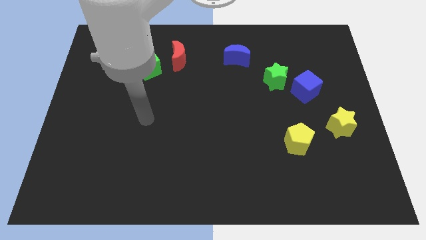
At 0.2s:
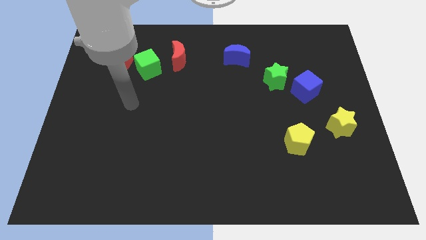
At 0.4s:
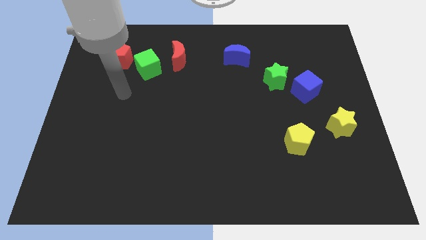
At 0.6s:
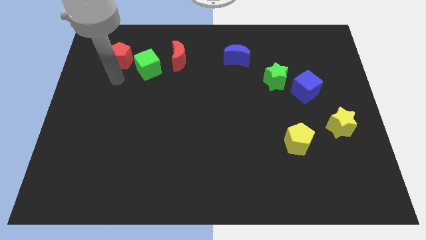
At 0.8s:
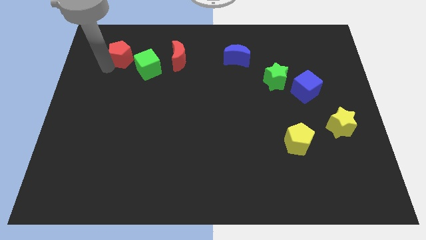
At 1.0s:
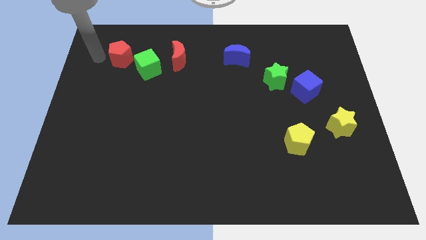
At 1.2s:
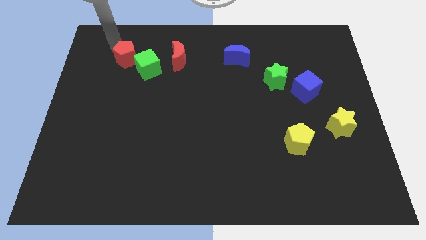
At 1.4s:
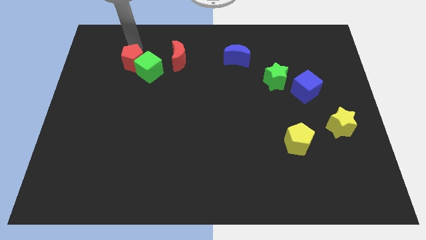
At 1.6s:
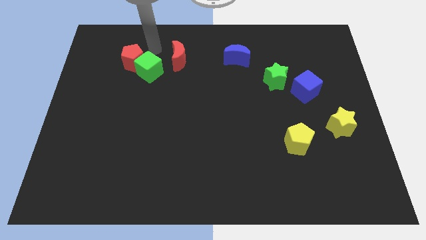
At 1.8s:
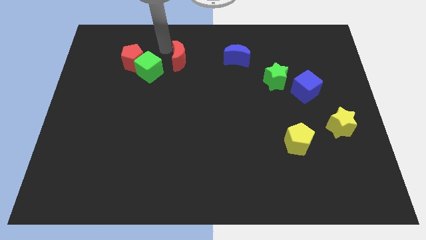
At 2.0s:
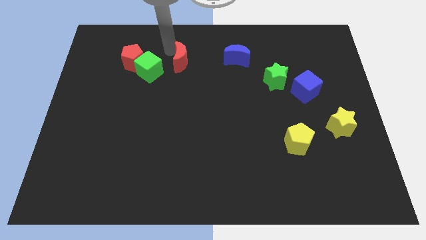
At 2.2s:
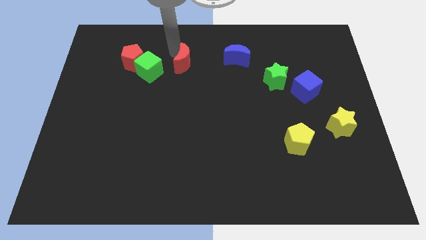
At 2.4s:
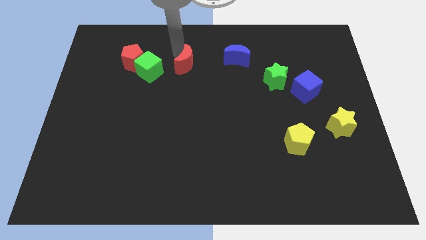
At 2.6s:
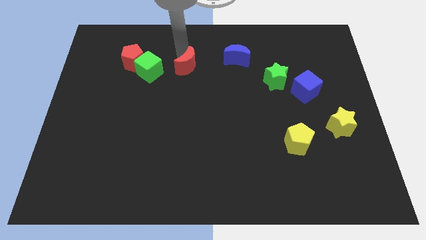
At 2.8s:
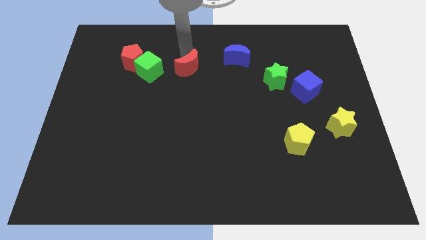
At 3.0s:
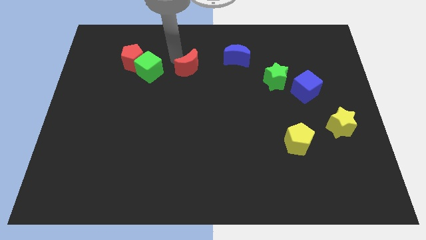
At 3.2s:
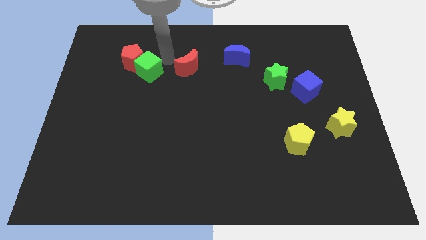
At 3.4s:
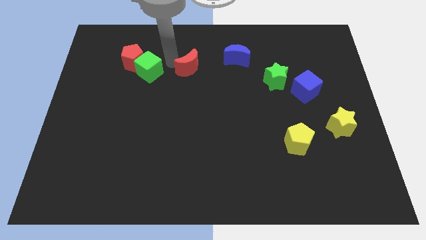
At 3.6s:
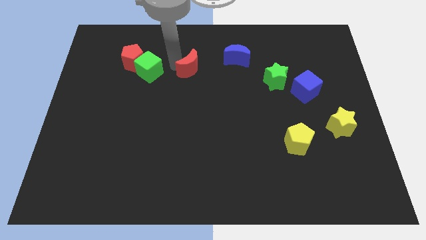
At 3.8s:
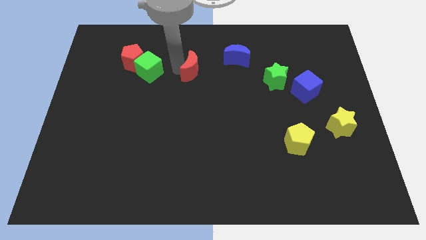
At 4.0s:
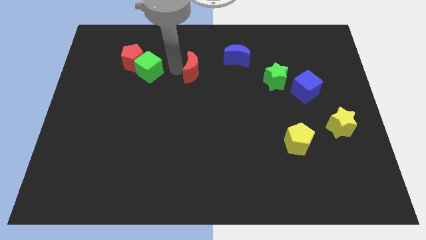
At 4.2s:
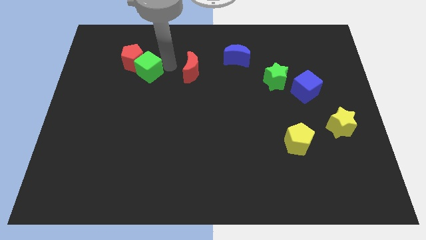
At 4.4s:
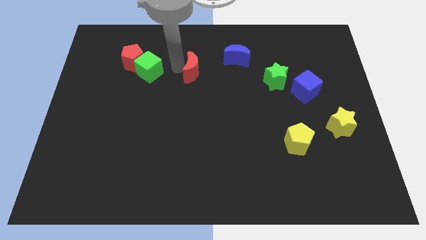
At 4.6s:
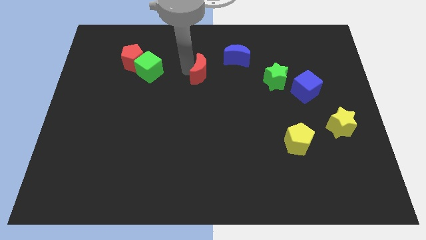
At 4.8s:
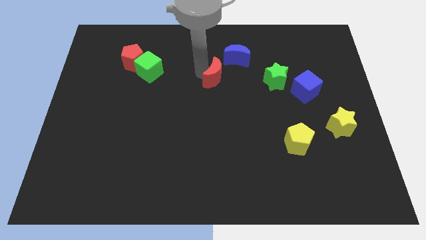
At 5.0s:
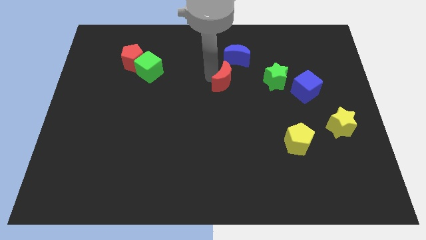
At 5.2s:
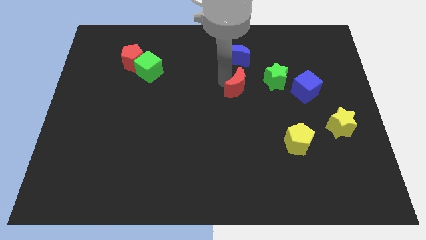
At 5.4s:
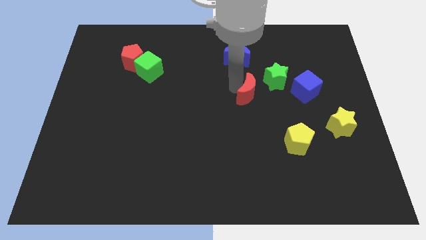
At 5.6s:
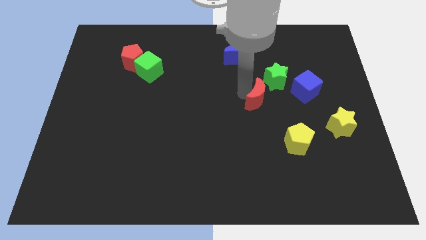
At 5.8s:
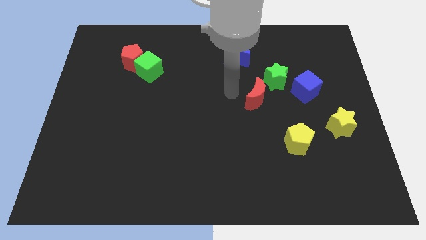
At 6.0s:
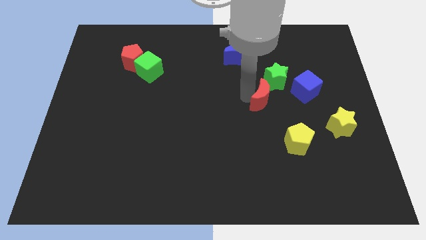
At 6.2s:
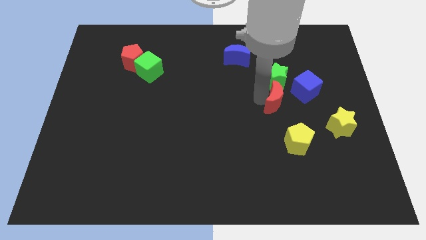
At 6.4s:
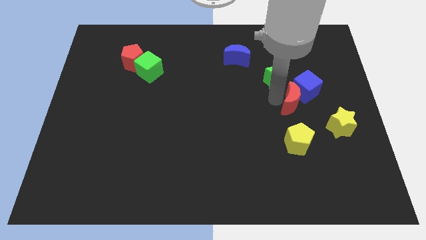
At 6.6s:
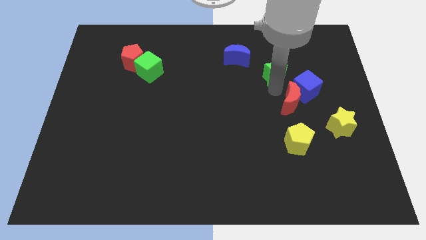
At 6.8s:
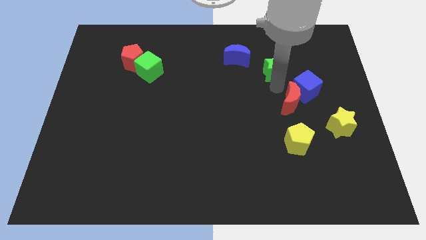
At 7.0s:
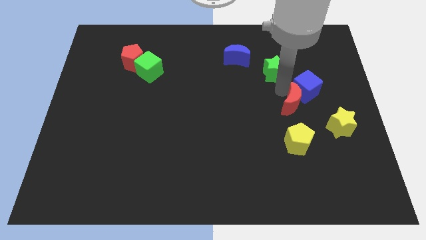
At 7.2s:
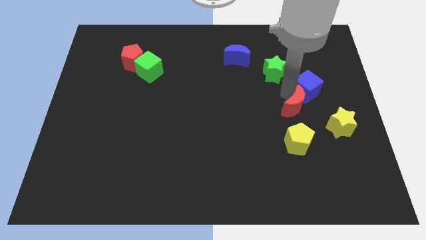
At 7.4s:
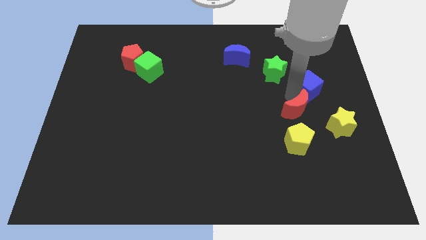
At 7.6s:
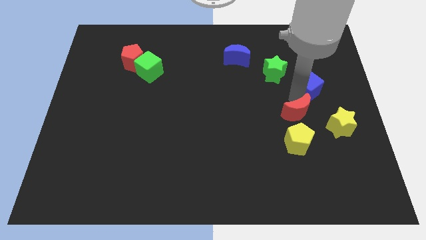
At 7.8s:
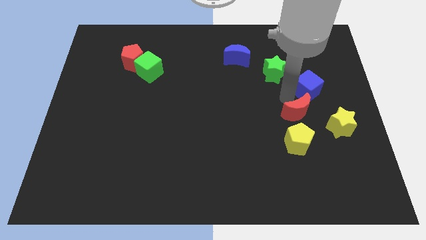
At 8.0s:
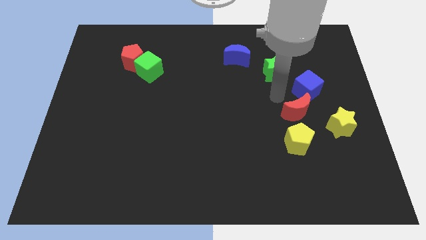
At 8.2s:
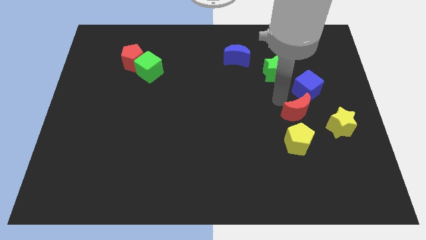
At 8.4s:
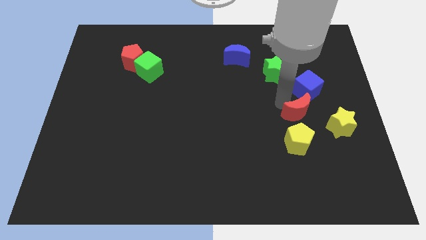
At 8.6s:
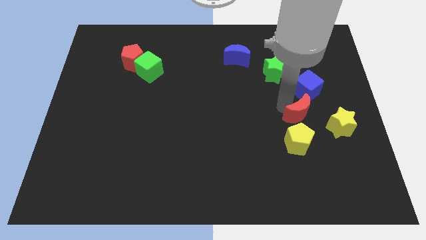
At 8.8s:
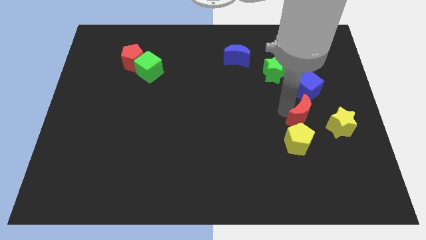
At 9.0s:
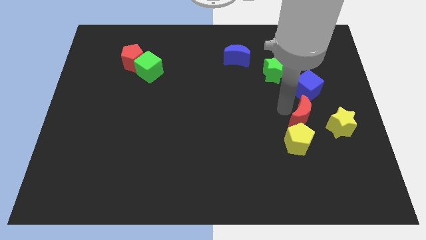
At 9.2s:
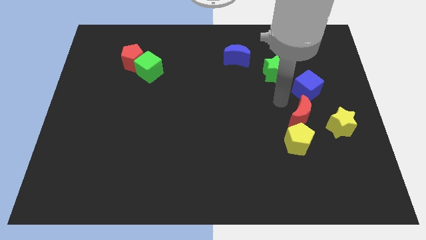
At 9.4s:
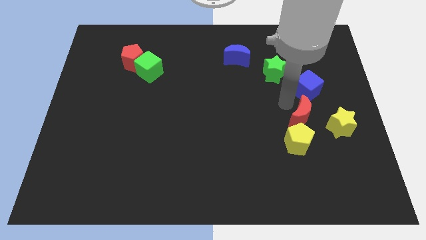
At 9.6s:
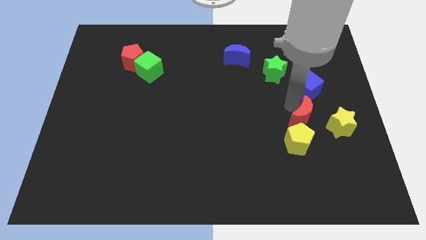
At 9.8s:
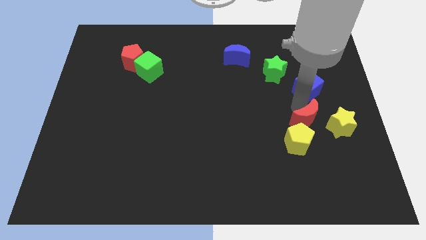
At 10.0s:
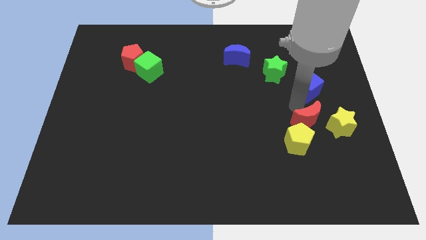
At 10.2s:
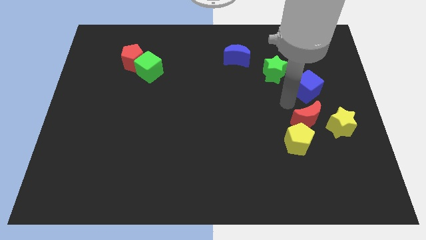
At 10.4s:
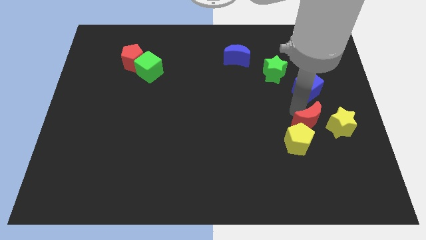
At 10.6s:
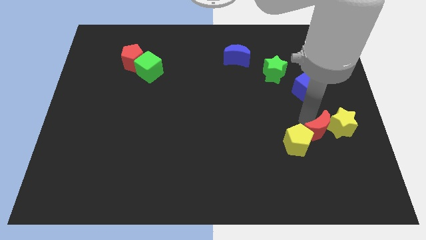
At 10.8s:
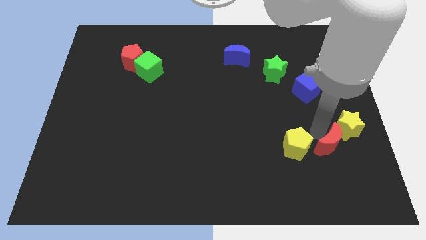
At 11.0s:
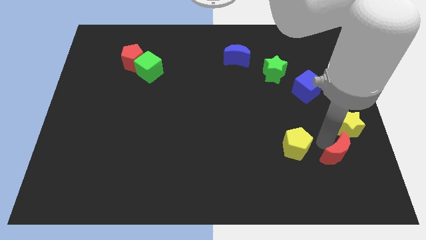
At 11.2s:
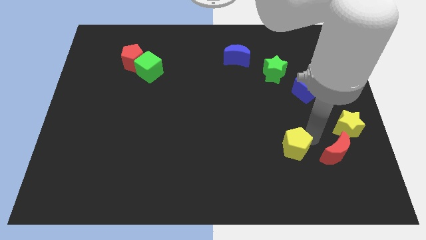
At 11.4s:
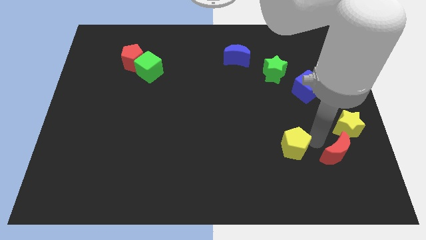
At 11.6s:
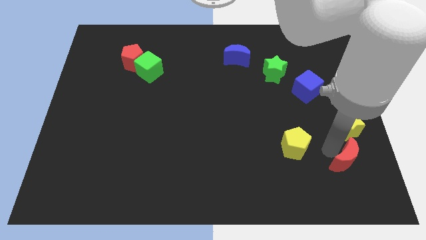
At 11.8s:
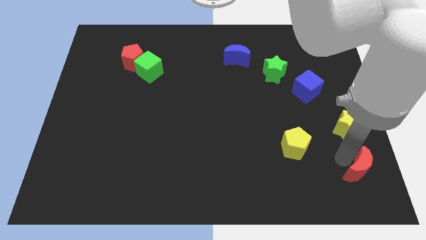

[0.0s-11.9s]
move the red moon to the bottom right

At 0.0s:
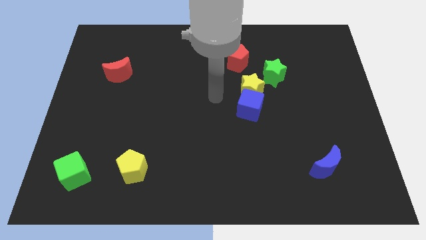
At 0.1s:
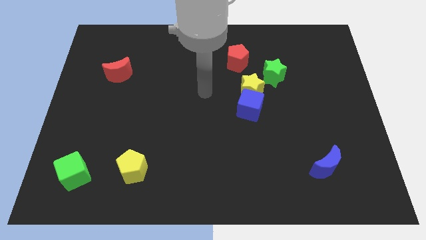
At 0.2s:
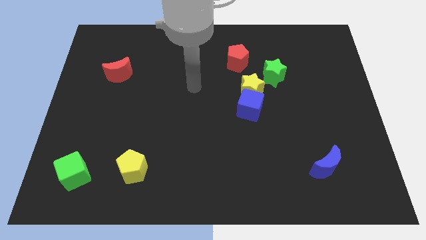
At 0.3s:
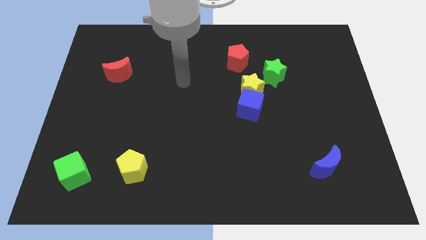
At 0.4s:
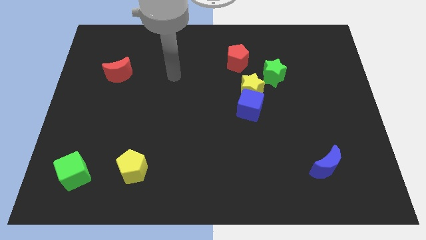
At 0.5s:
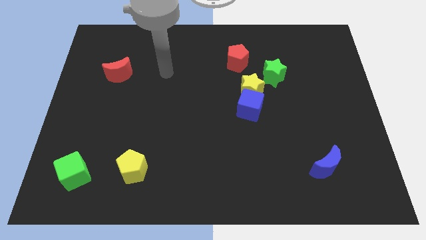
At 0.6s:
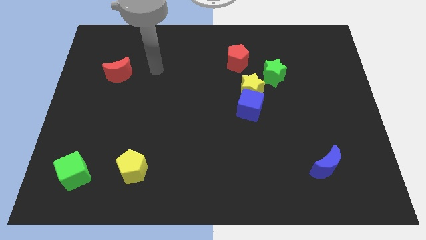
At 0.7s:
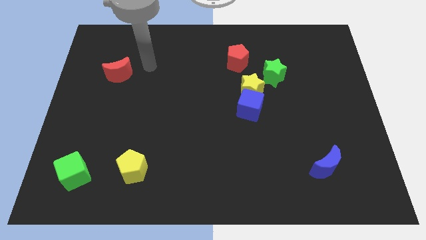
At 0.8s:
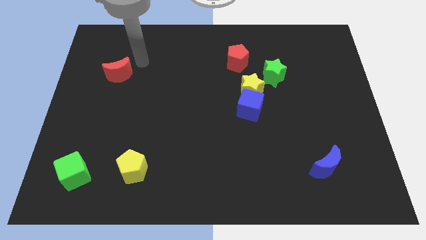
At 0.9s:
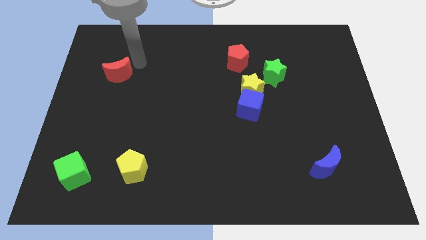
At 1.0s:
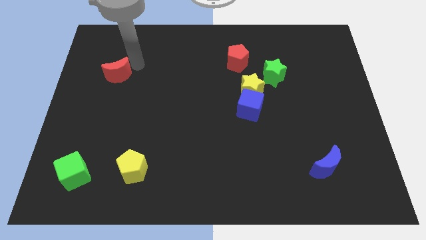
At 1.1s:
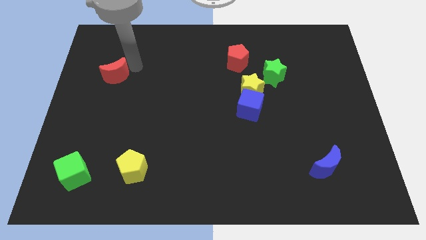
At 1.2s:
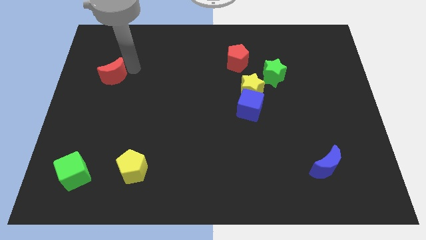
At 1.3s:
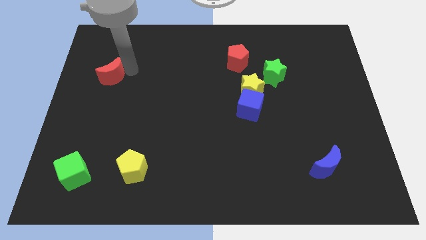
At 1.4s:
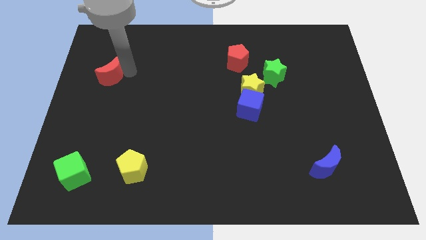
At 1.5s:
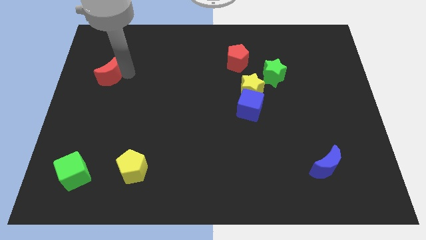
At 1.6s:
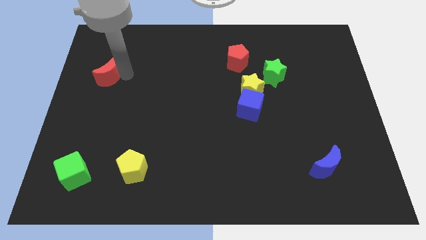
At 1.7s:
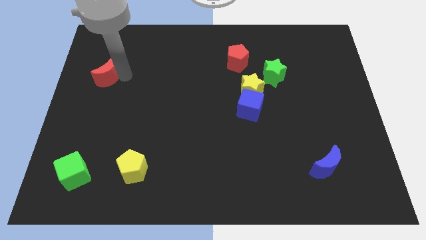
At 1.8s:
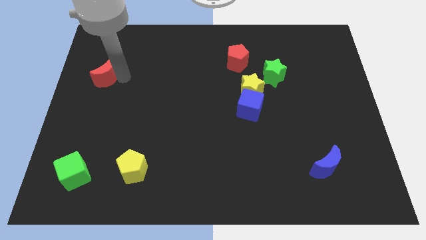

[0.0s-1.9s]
put the red moon to the left side
